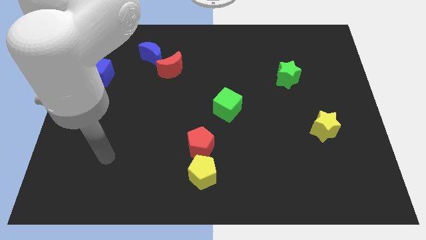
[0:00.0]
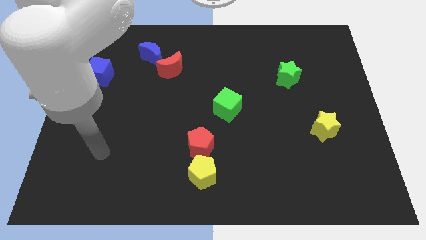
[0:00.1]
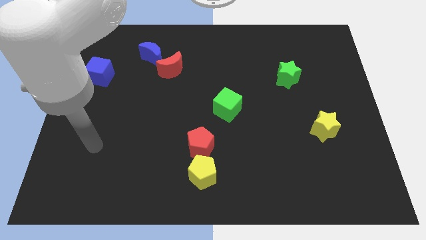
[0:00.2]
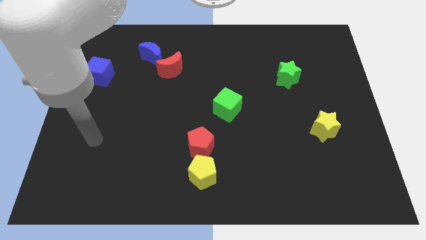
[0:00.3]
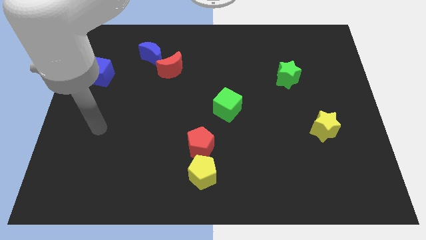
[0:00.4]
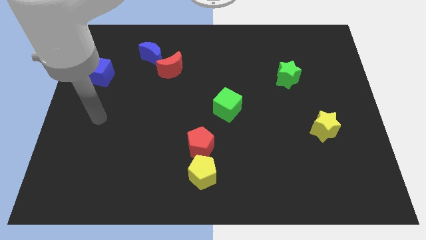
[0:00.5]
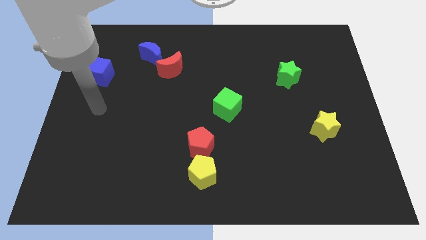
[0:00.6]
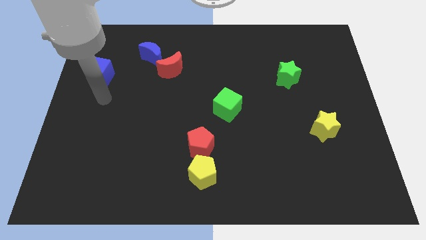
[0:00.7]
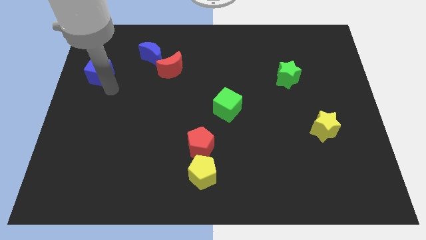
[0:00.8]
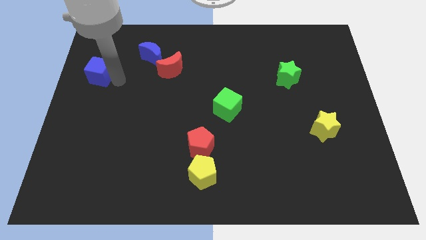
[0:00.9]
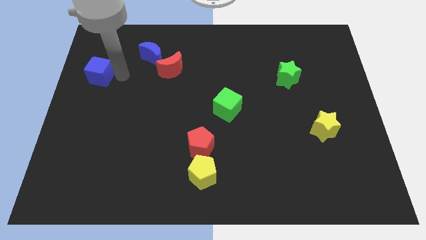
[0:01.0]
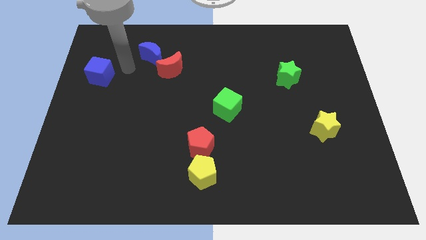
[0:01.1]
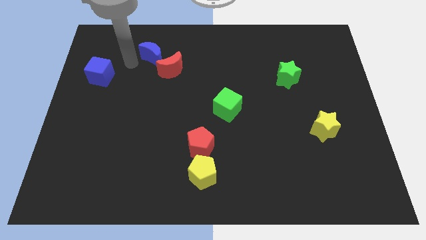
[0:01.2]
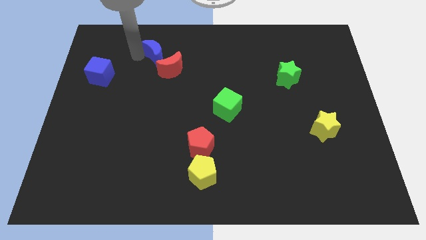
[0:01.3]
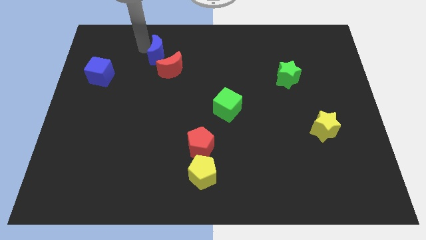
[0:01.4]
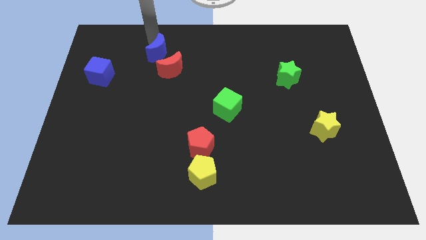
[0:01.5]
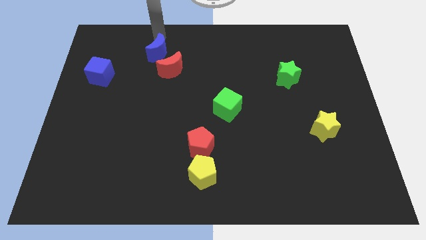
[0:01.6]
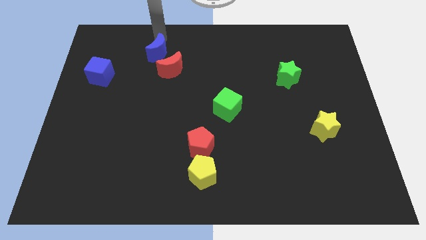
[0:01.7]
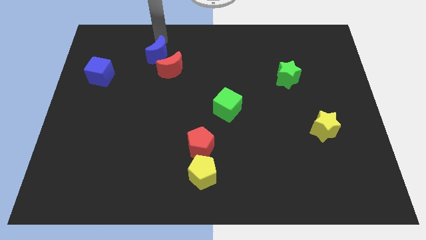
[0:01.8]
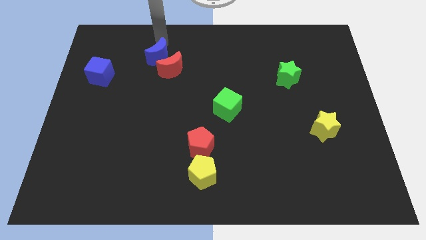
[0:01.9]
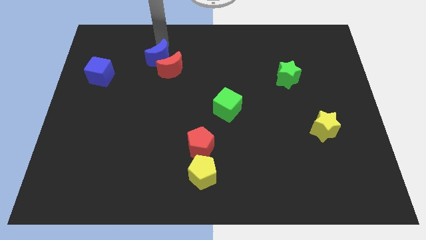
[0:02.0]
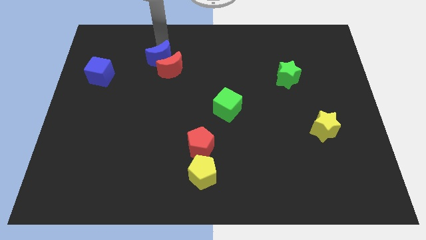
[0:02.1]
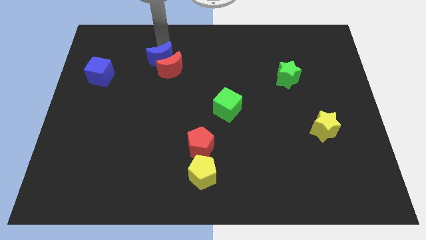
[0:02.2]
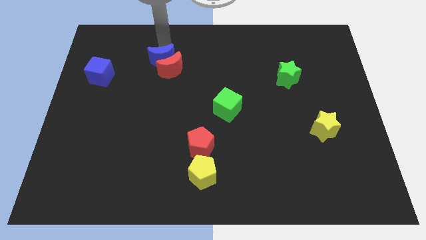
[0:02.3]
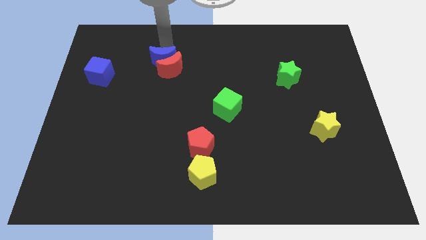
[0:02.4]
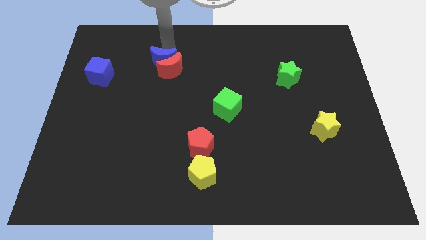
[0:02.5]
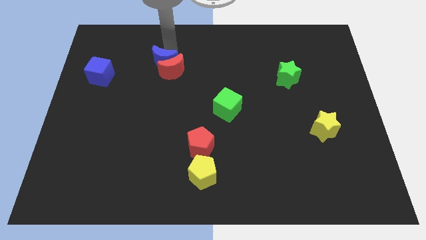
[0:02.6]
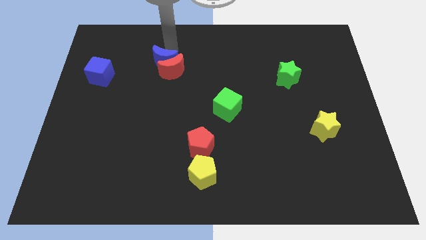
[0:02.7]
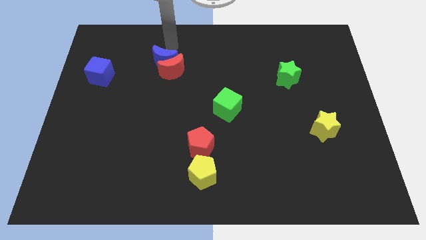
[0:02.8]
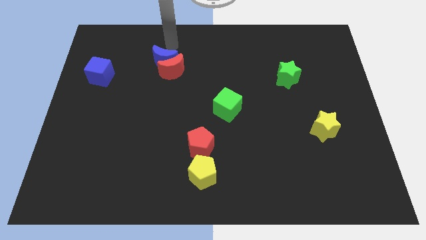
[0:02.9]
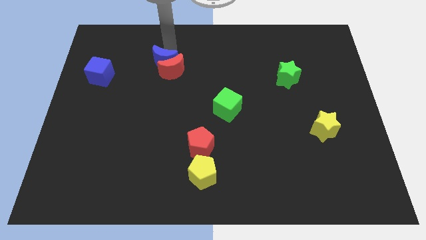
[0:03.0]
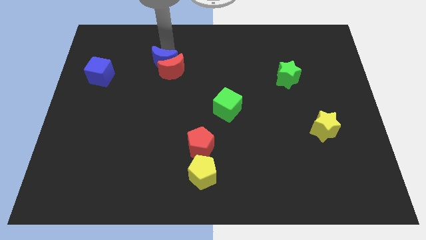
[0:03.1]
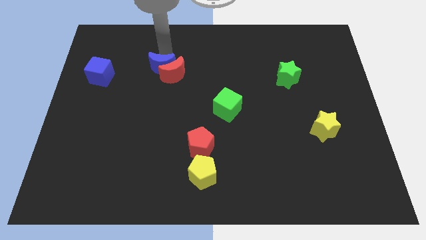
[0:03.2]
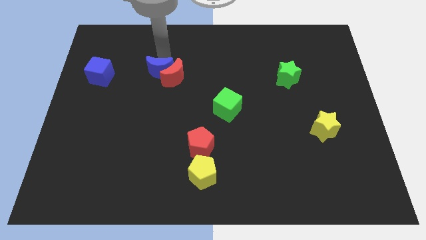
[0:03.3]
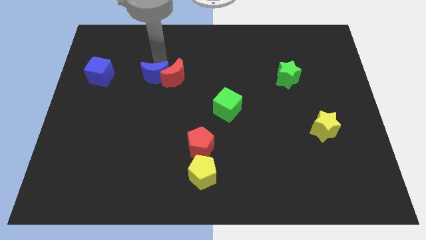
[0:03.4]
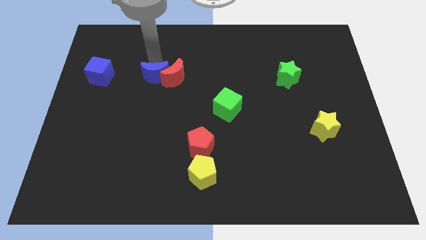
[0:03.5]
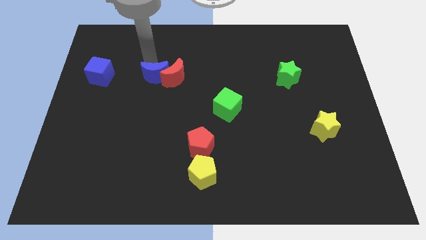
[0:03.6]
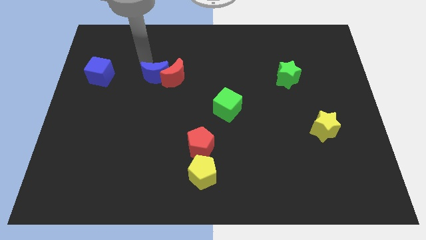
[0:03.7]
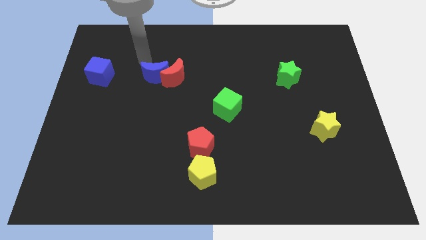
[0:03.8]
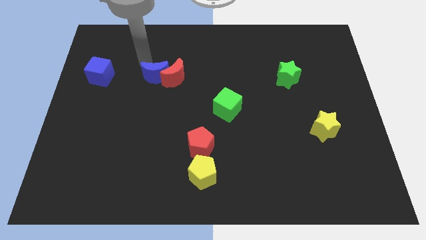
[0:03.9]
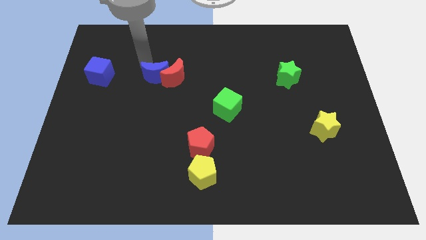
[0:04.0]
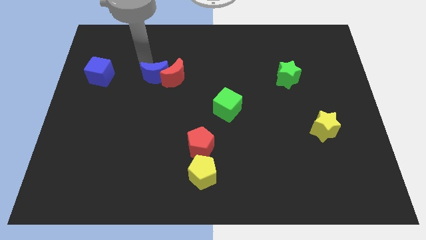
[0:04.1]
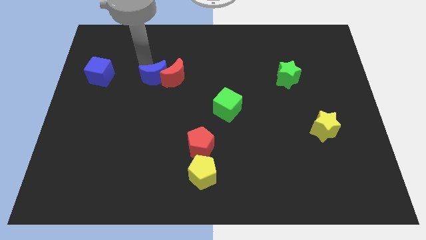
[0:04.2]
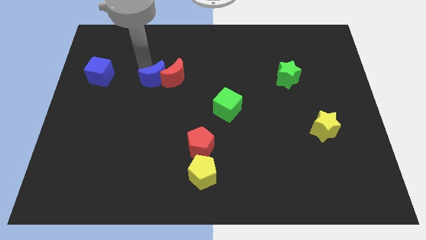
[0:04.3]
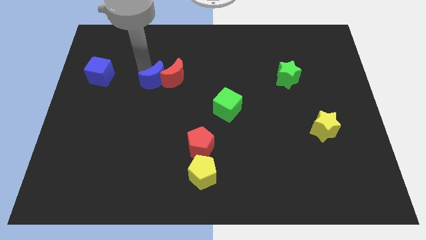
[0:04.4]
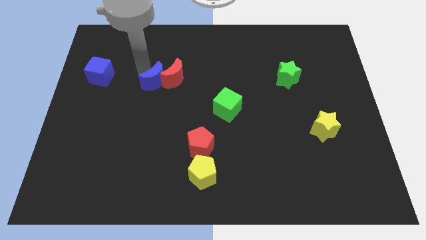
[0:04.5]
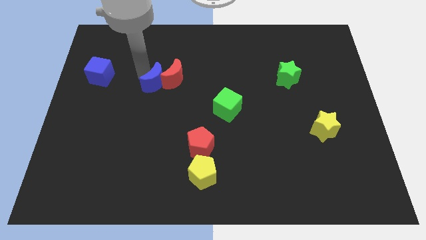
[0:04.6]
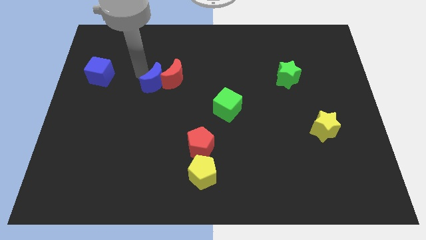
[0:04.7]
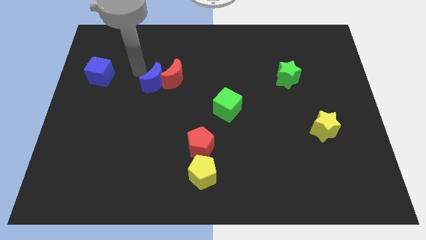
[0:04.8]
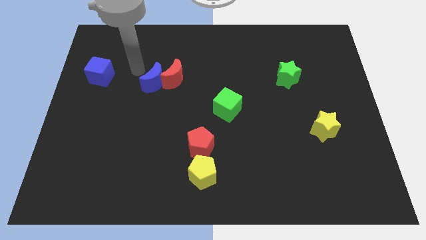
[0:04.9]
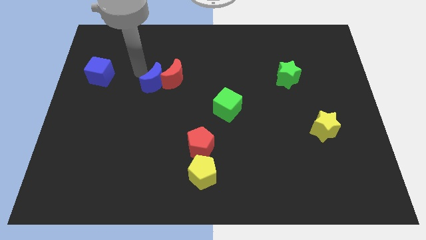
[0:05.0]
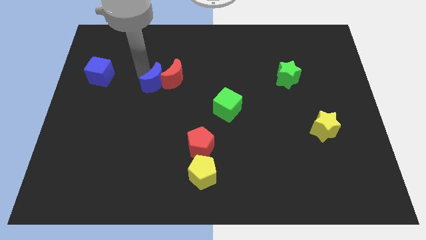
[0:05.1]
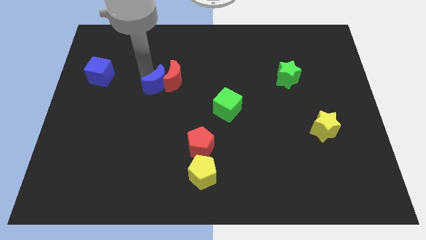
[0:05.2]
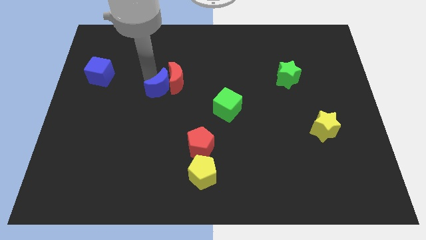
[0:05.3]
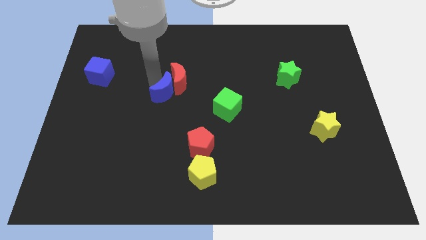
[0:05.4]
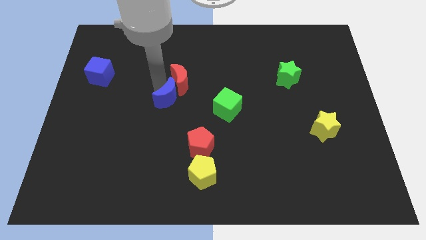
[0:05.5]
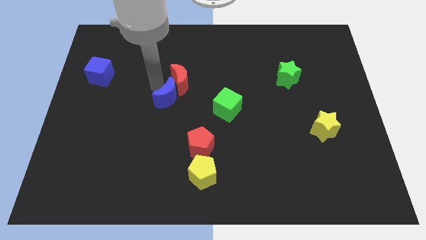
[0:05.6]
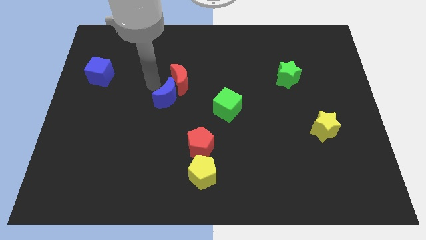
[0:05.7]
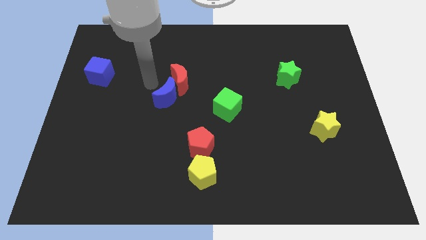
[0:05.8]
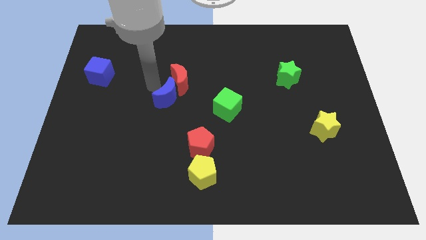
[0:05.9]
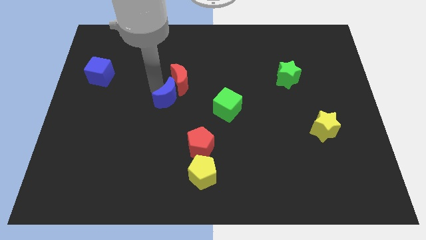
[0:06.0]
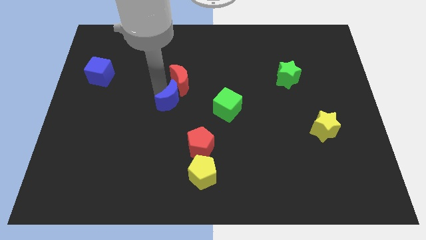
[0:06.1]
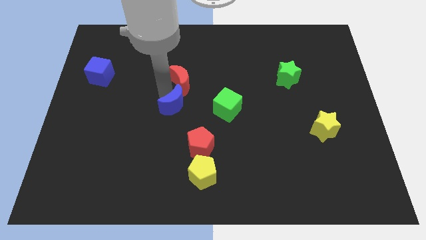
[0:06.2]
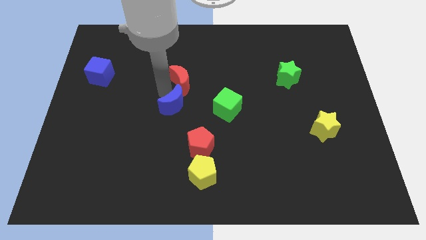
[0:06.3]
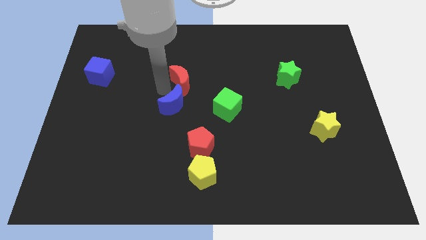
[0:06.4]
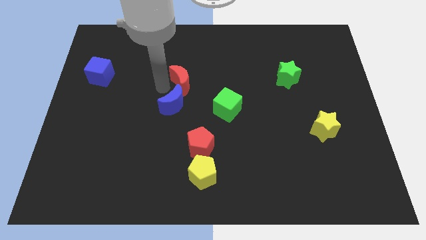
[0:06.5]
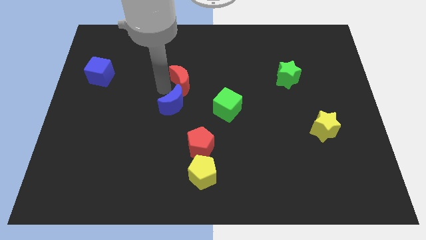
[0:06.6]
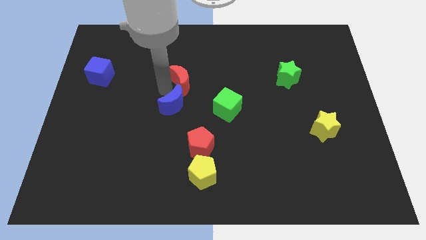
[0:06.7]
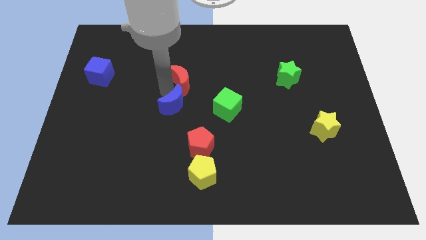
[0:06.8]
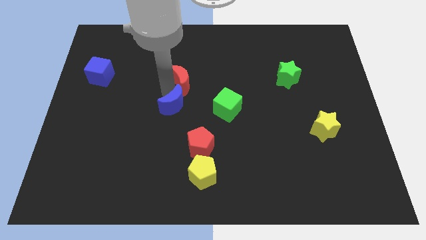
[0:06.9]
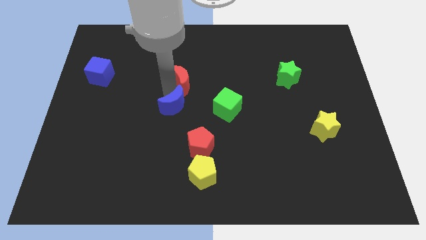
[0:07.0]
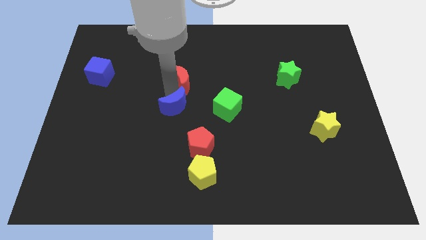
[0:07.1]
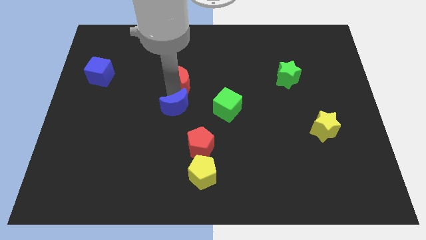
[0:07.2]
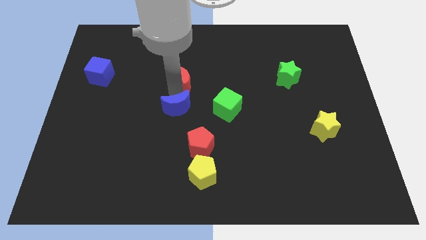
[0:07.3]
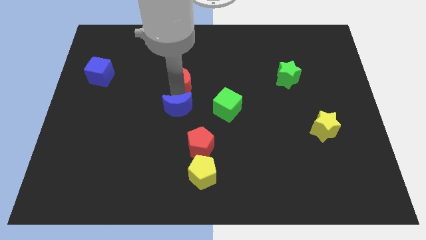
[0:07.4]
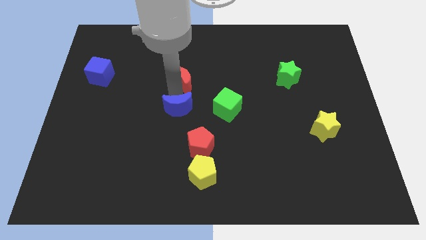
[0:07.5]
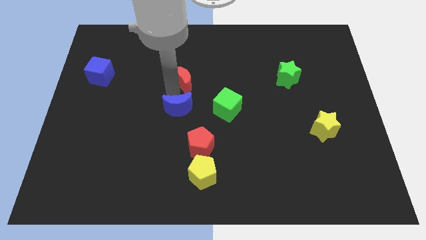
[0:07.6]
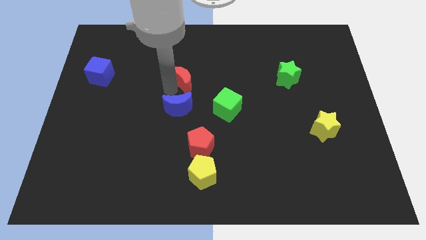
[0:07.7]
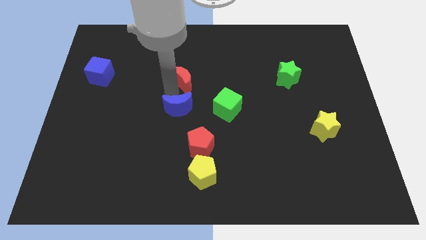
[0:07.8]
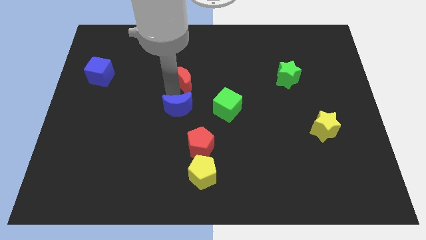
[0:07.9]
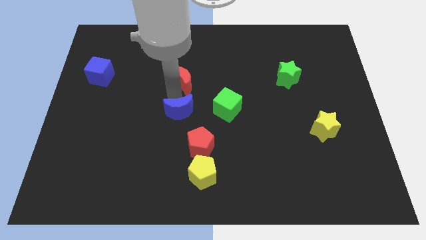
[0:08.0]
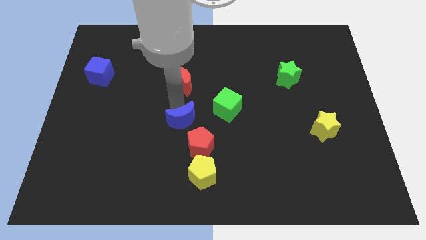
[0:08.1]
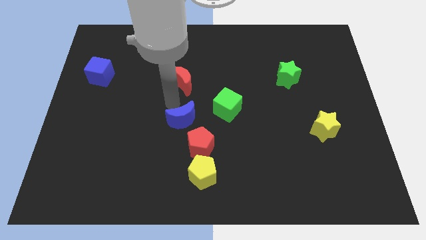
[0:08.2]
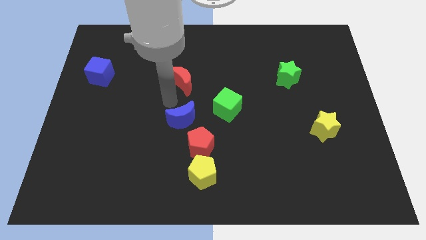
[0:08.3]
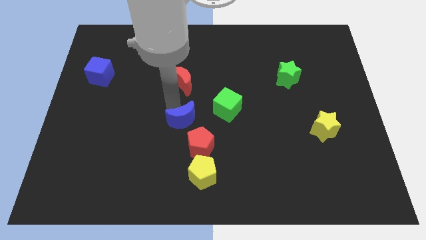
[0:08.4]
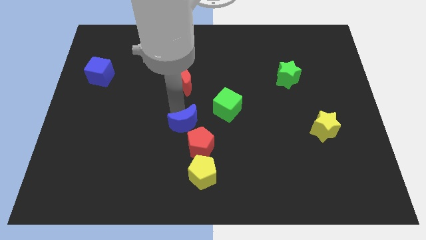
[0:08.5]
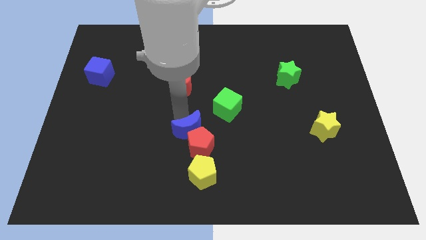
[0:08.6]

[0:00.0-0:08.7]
move the blue moon close to the red pentagon
